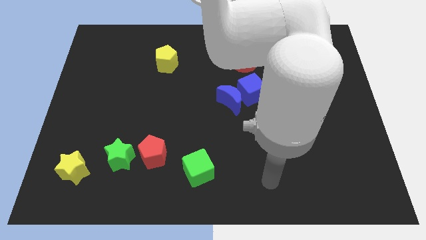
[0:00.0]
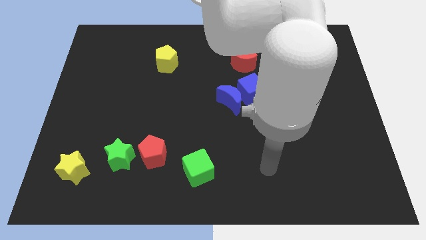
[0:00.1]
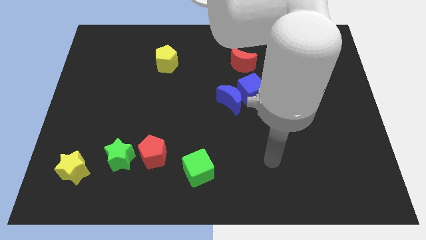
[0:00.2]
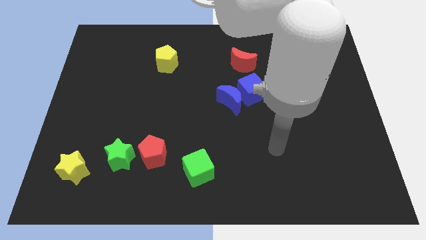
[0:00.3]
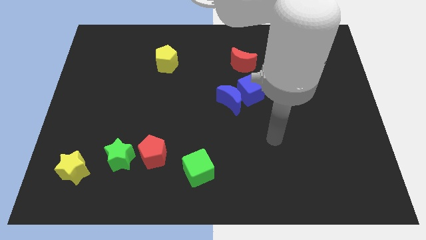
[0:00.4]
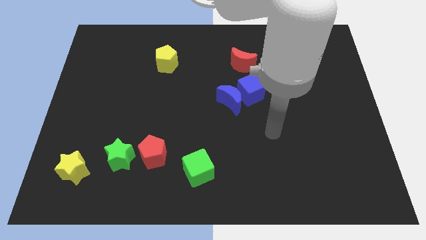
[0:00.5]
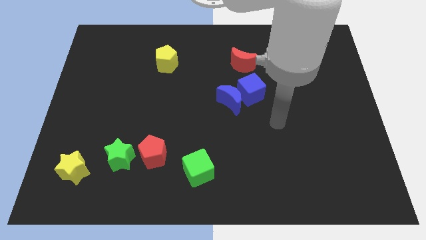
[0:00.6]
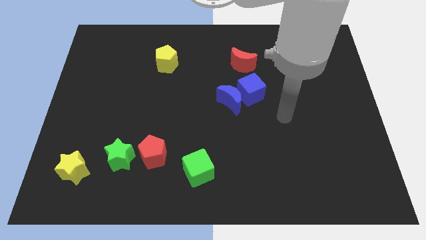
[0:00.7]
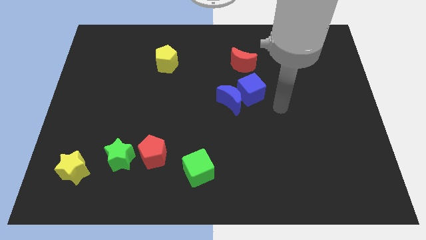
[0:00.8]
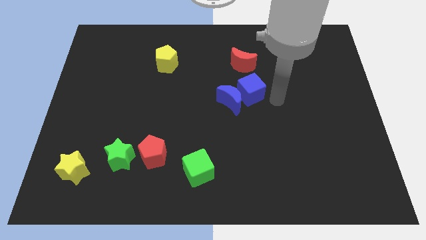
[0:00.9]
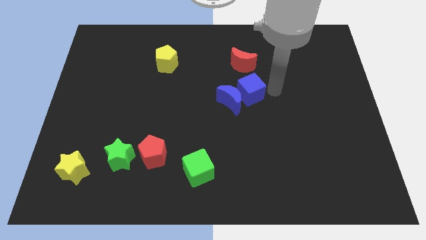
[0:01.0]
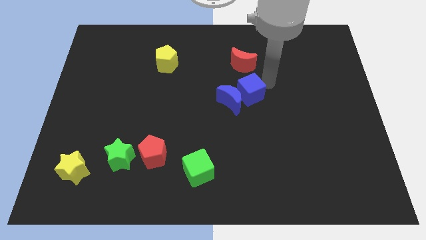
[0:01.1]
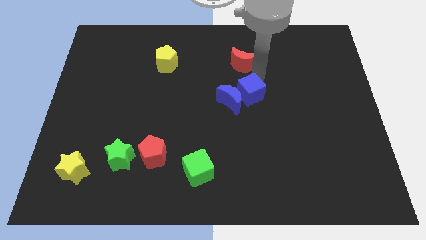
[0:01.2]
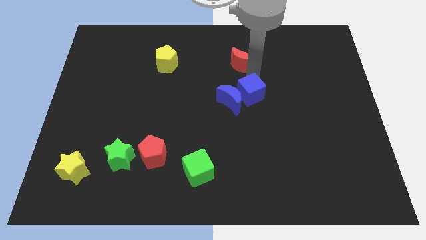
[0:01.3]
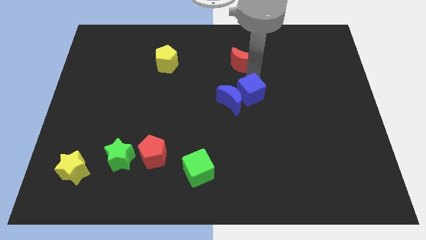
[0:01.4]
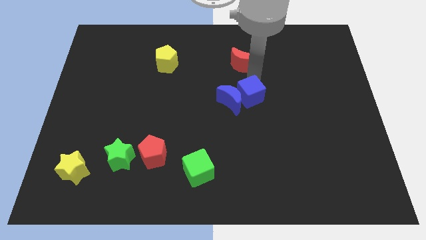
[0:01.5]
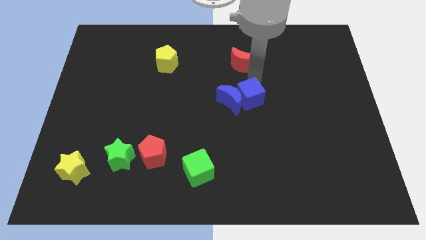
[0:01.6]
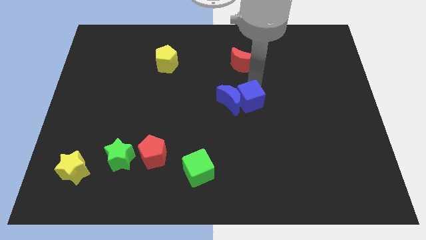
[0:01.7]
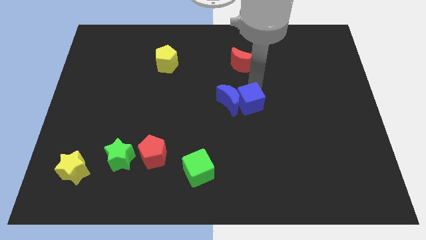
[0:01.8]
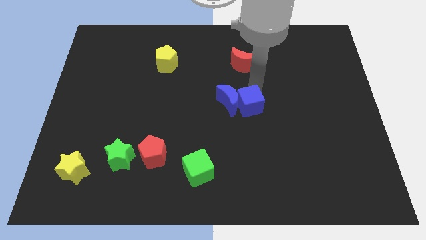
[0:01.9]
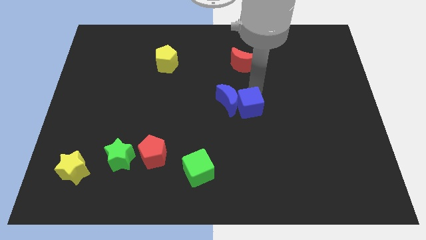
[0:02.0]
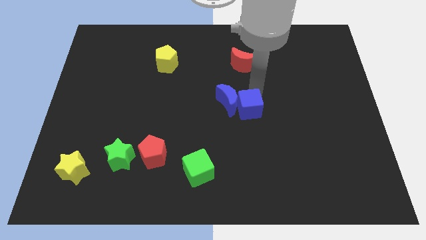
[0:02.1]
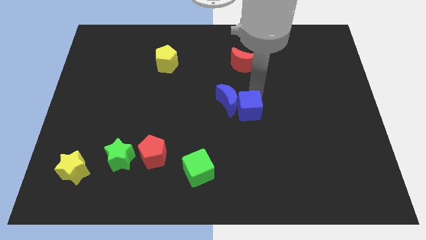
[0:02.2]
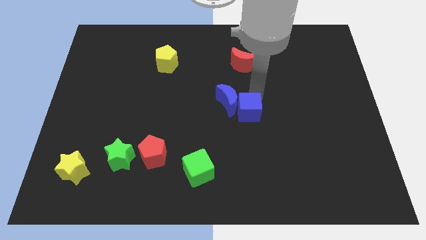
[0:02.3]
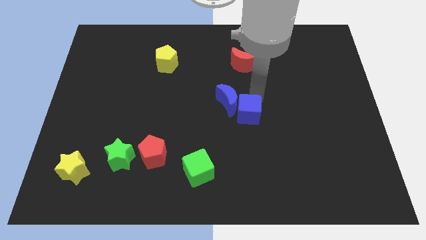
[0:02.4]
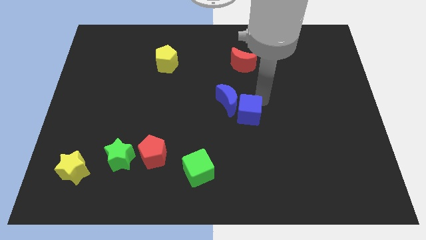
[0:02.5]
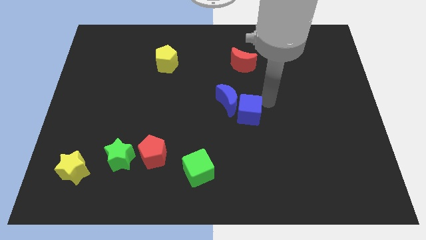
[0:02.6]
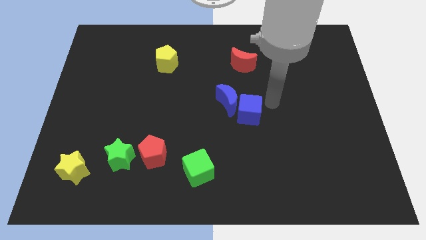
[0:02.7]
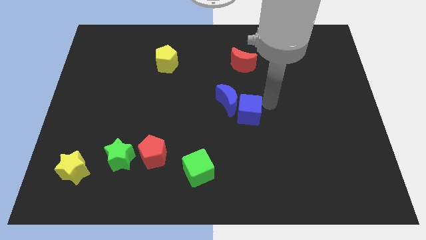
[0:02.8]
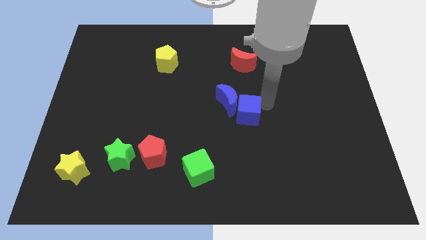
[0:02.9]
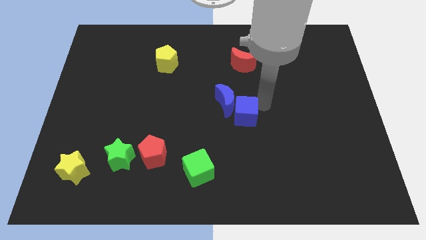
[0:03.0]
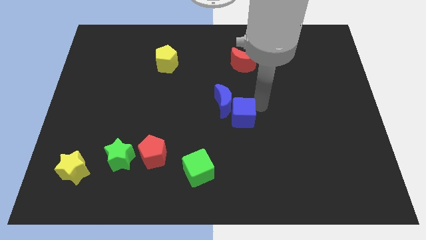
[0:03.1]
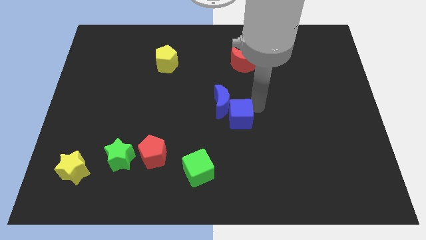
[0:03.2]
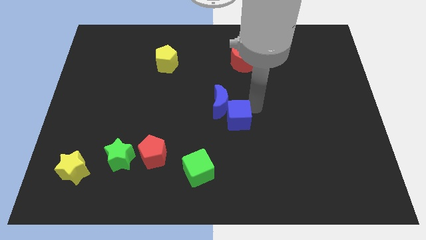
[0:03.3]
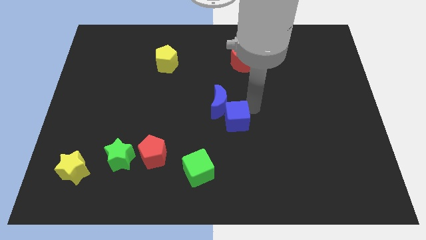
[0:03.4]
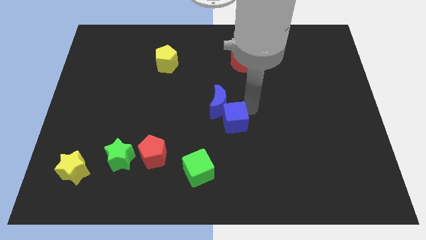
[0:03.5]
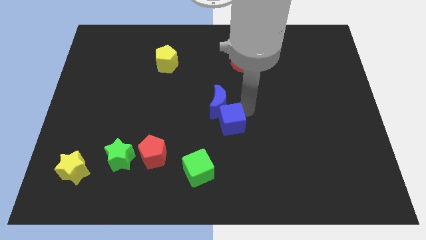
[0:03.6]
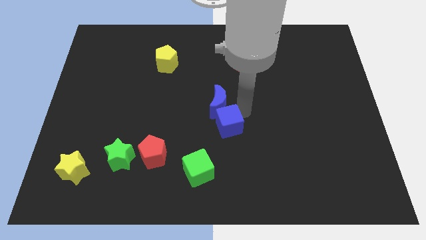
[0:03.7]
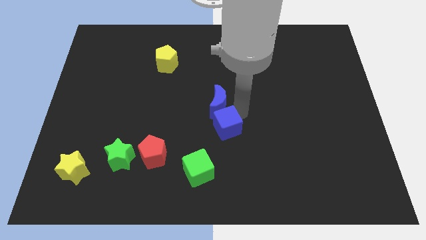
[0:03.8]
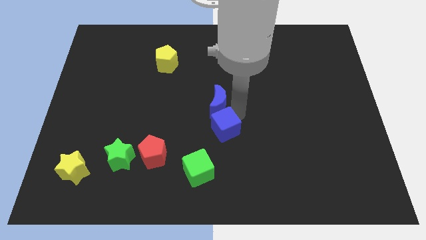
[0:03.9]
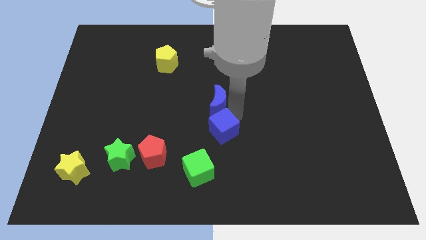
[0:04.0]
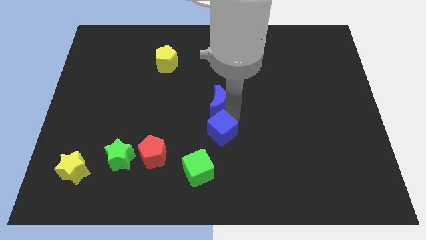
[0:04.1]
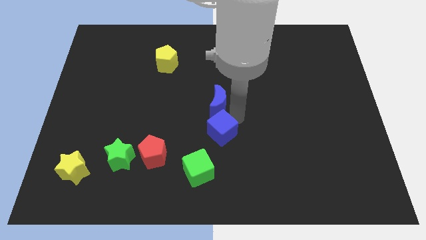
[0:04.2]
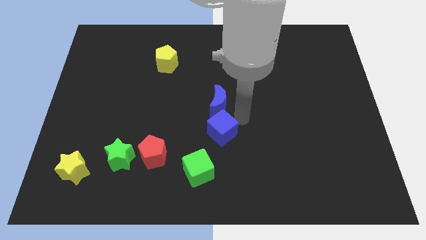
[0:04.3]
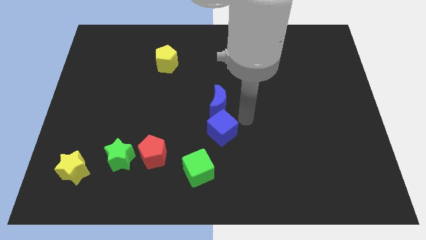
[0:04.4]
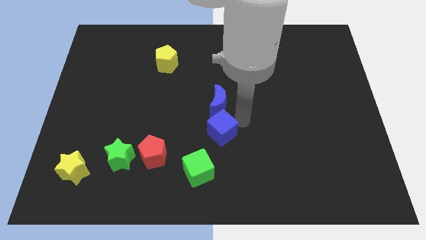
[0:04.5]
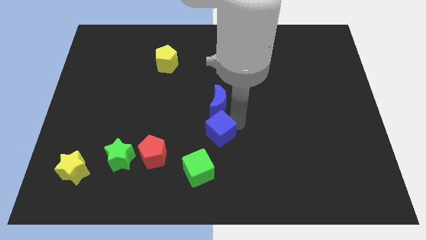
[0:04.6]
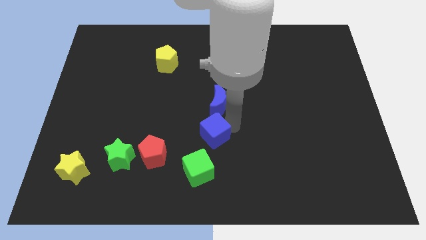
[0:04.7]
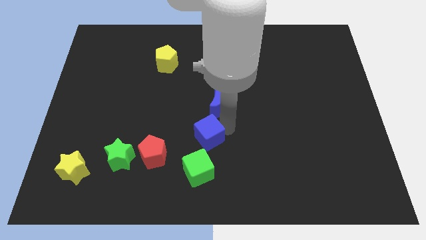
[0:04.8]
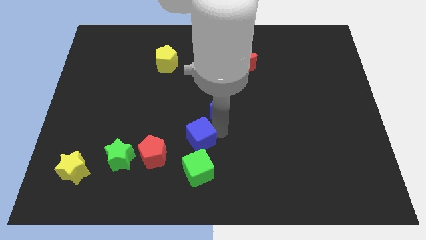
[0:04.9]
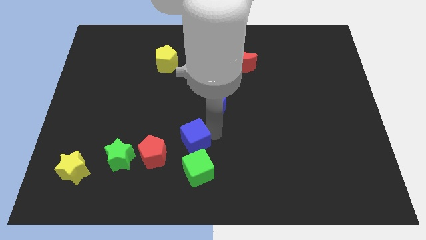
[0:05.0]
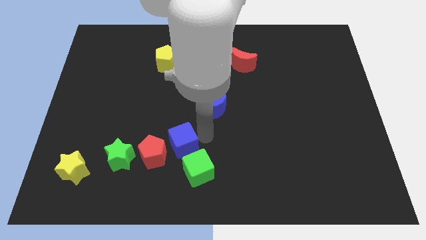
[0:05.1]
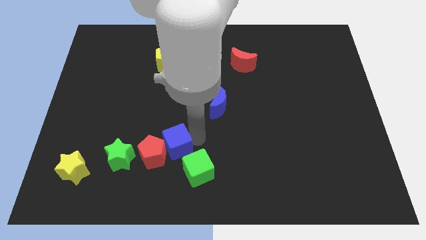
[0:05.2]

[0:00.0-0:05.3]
put the blue cube towards the red pentagon

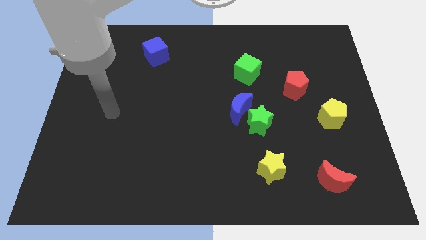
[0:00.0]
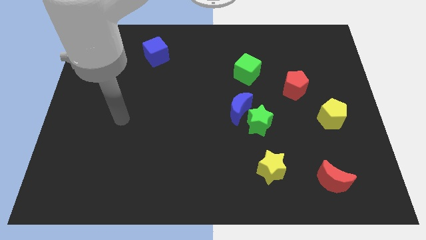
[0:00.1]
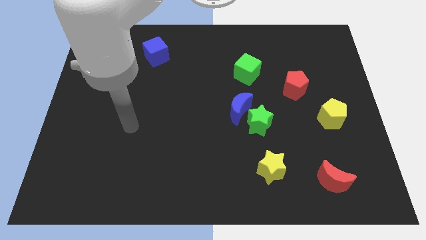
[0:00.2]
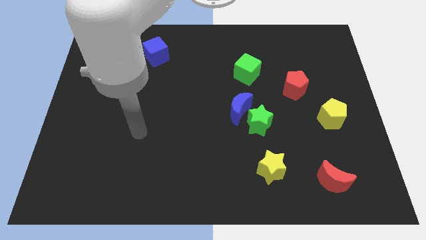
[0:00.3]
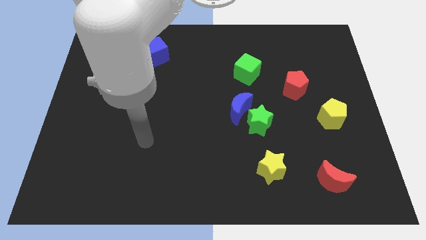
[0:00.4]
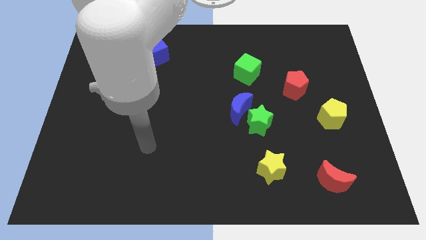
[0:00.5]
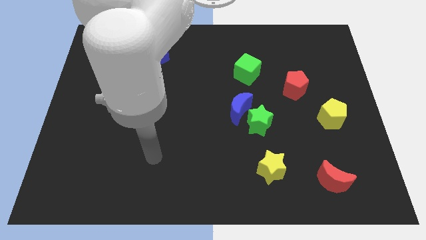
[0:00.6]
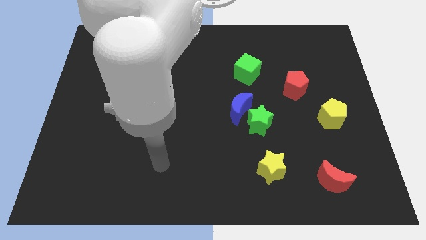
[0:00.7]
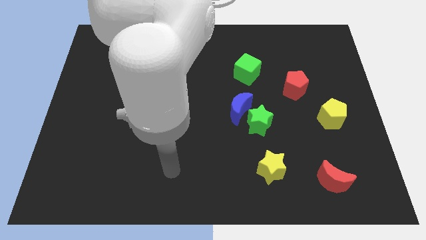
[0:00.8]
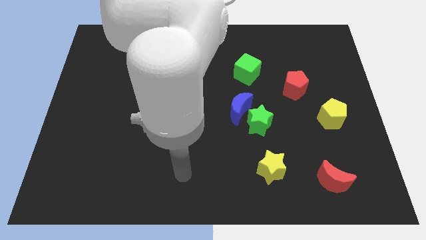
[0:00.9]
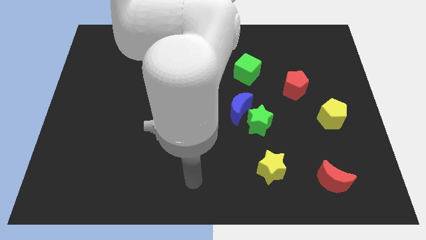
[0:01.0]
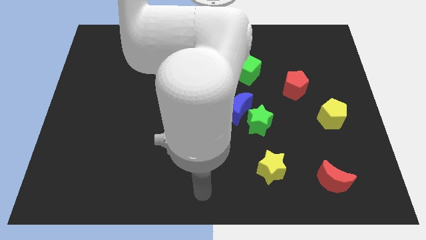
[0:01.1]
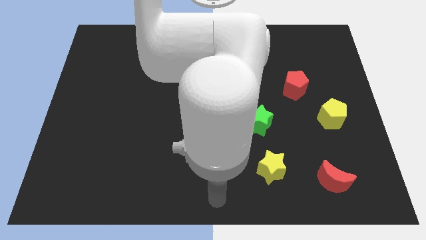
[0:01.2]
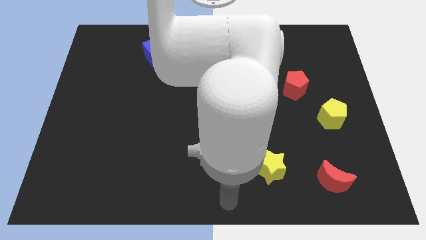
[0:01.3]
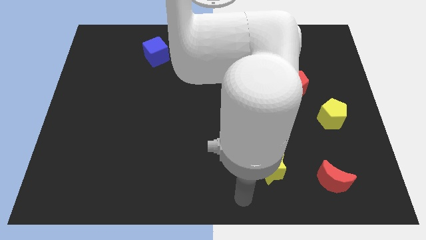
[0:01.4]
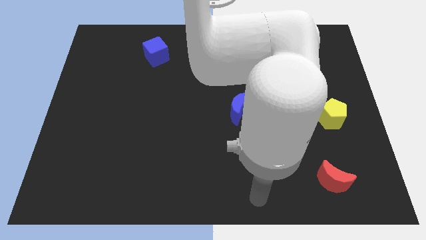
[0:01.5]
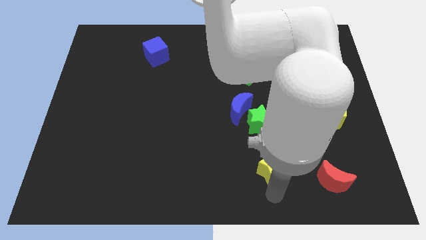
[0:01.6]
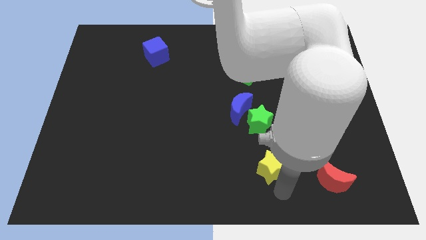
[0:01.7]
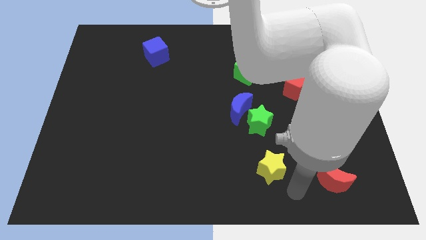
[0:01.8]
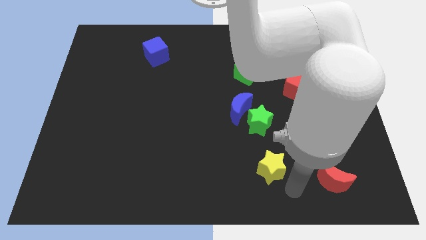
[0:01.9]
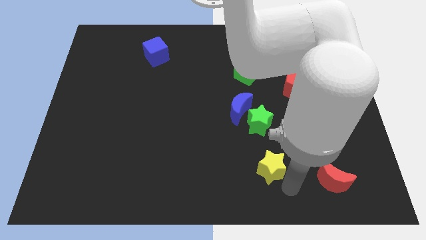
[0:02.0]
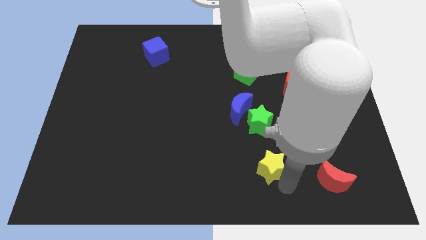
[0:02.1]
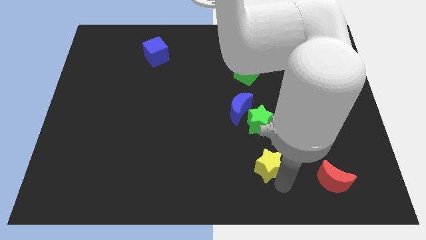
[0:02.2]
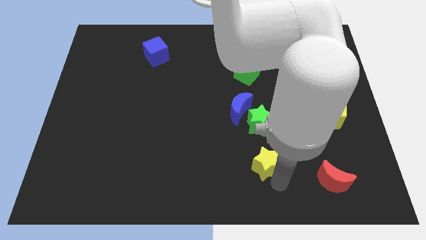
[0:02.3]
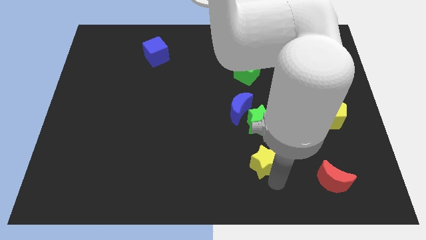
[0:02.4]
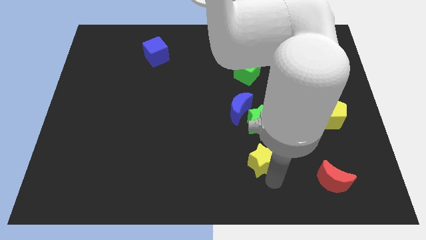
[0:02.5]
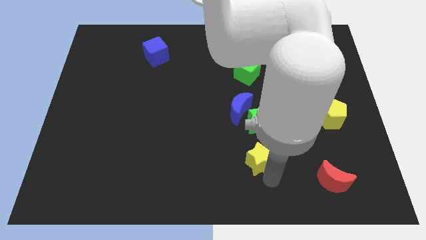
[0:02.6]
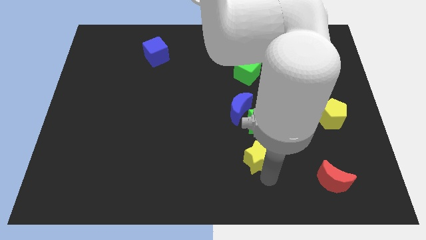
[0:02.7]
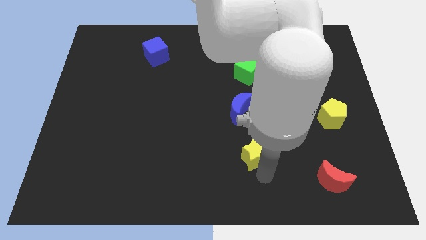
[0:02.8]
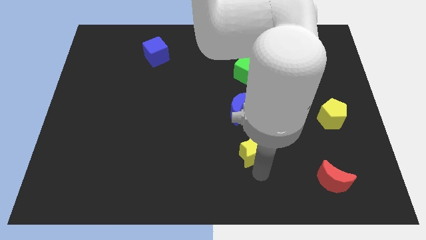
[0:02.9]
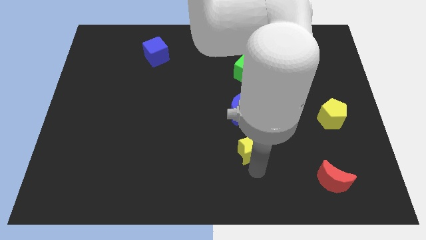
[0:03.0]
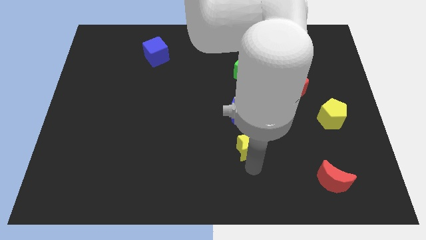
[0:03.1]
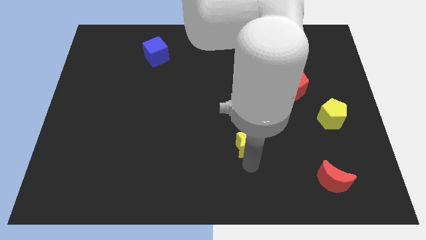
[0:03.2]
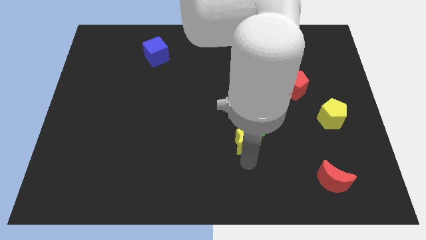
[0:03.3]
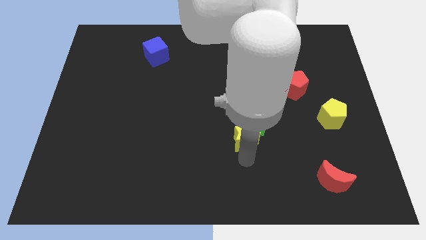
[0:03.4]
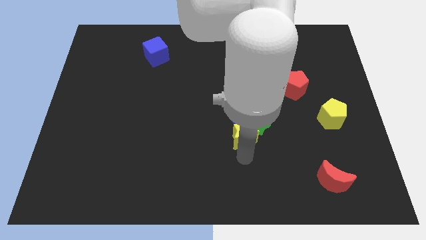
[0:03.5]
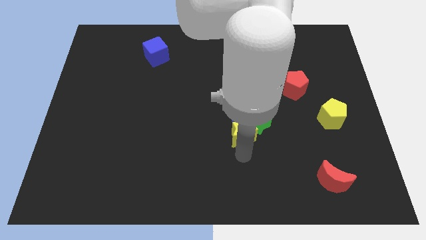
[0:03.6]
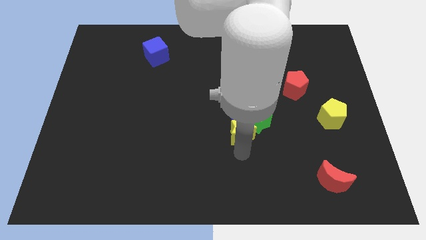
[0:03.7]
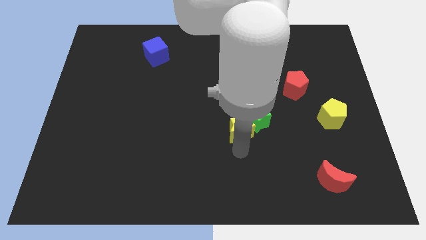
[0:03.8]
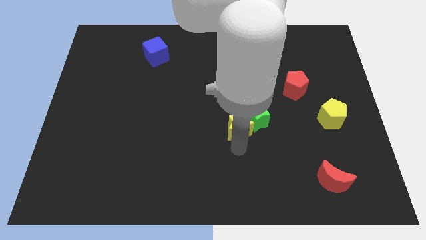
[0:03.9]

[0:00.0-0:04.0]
push the yellow star close to the blue moon
